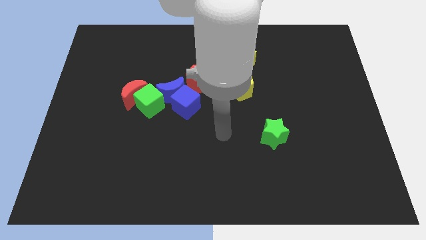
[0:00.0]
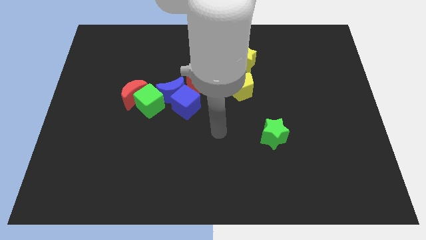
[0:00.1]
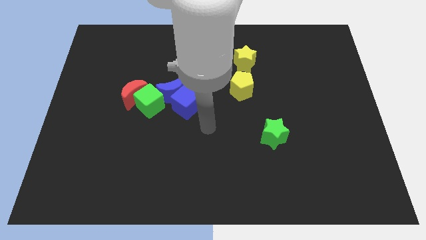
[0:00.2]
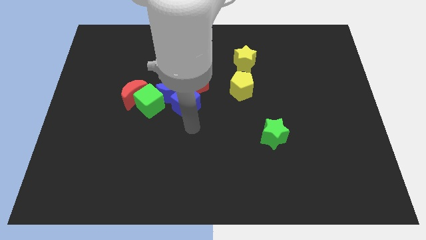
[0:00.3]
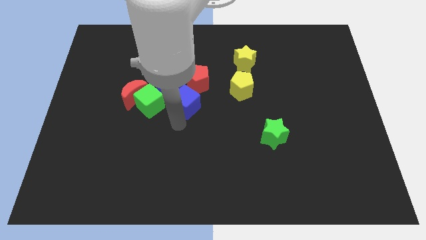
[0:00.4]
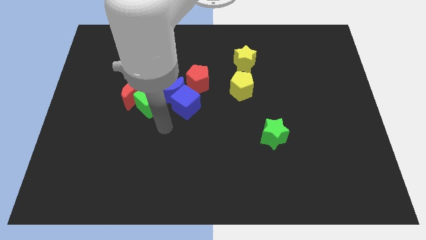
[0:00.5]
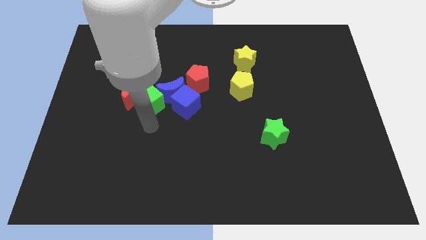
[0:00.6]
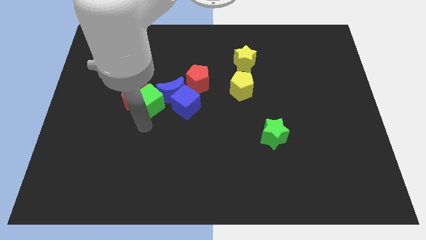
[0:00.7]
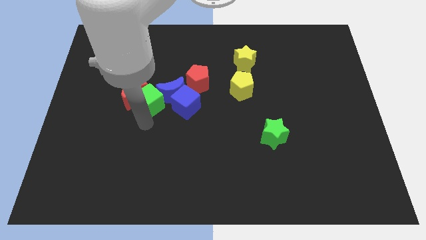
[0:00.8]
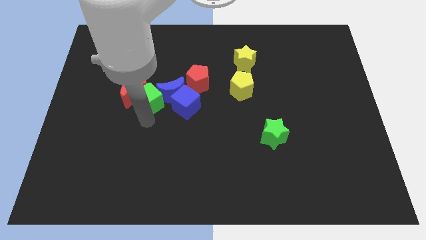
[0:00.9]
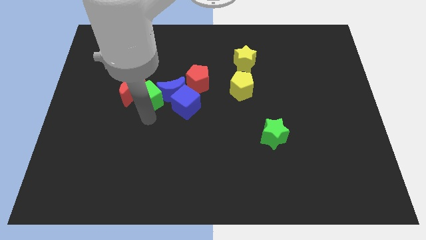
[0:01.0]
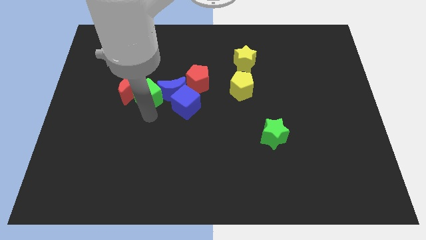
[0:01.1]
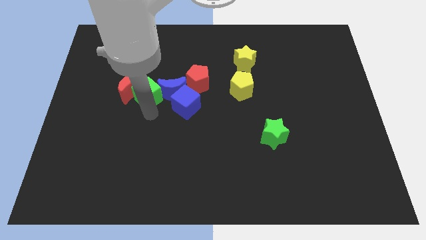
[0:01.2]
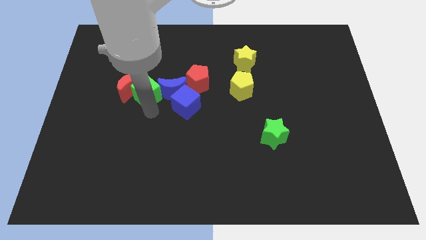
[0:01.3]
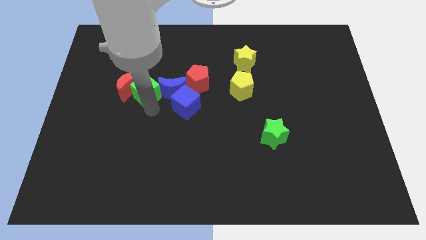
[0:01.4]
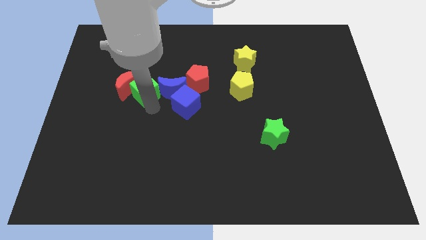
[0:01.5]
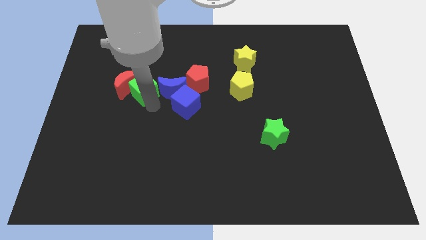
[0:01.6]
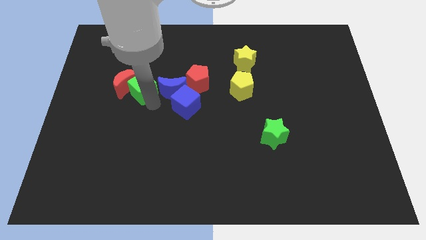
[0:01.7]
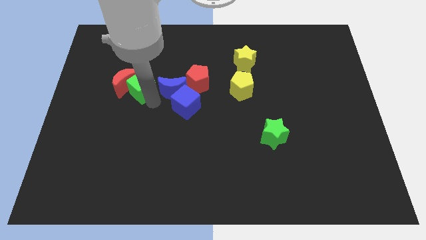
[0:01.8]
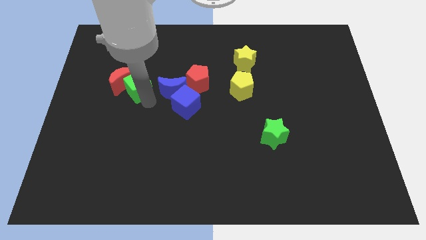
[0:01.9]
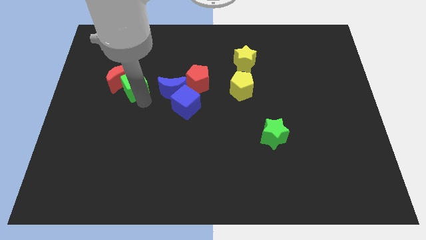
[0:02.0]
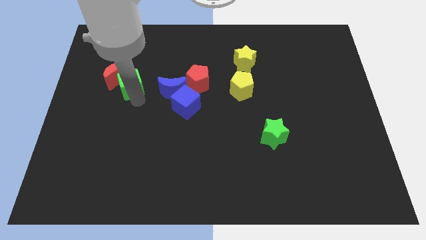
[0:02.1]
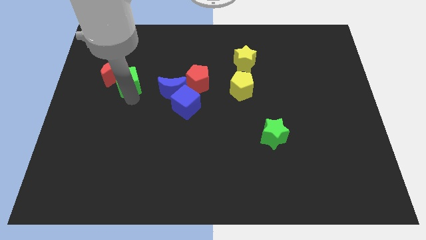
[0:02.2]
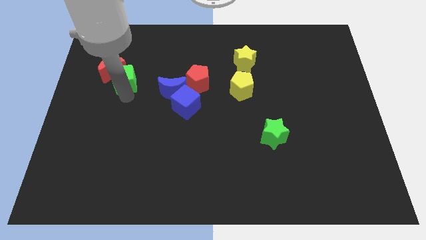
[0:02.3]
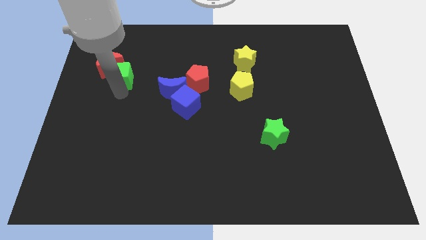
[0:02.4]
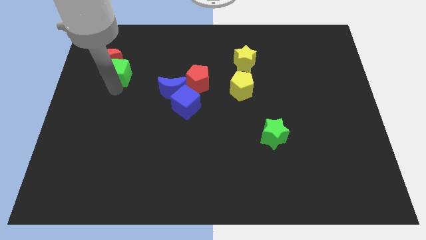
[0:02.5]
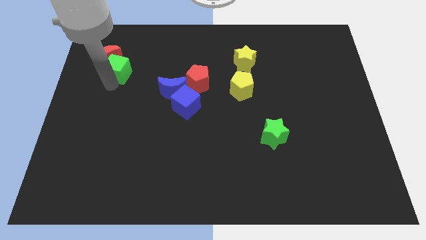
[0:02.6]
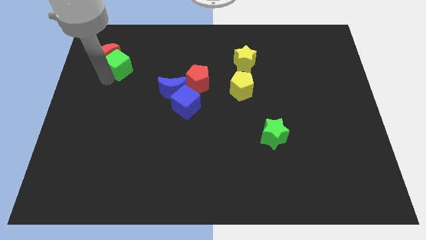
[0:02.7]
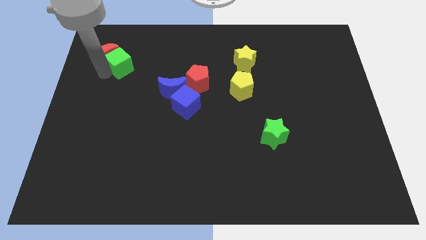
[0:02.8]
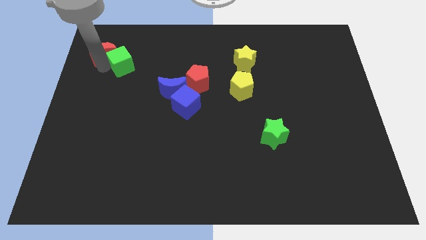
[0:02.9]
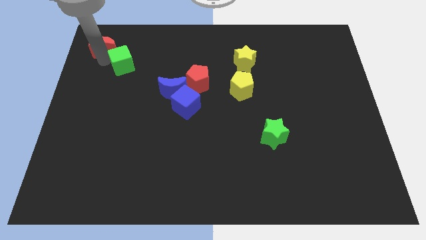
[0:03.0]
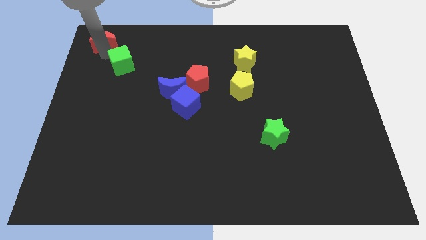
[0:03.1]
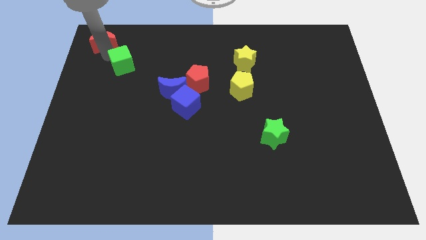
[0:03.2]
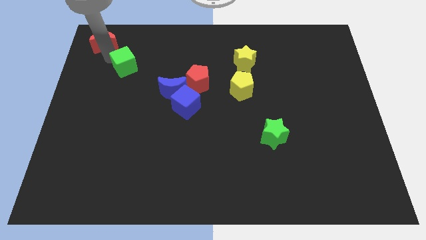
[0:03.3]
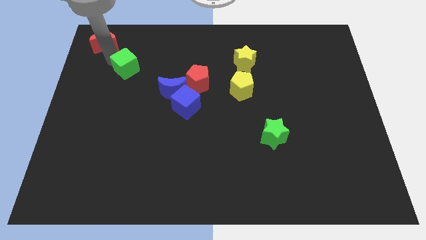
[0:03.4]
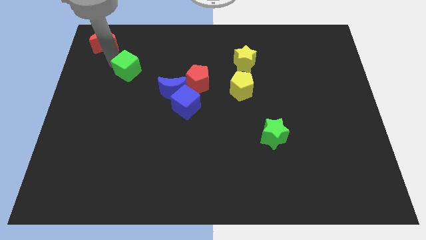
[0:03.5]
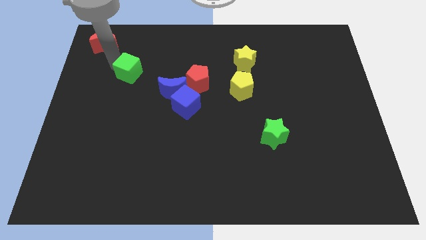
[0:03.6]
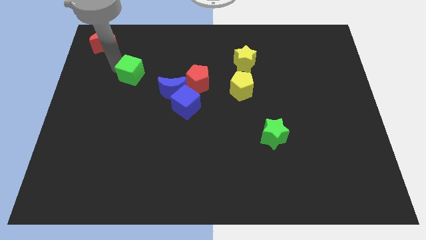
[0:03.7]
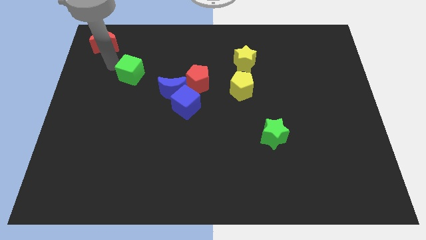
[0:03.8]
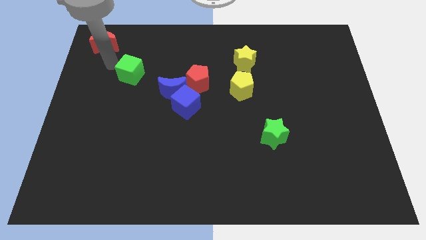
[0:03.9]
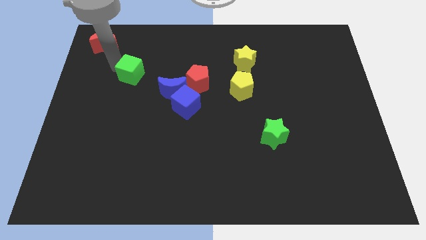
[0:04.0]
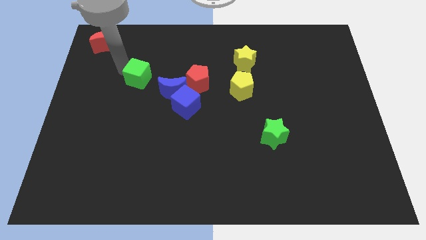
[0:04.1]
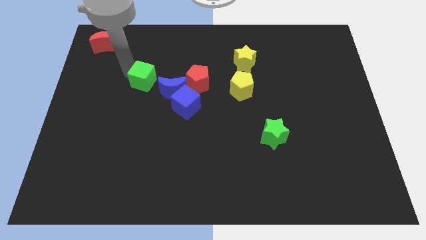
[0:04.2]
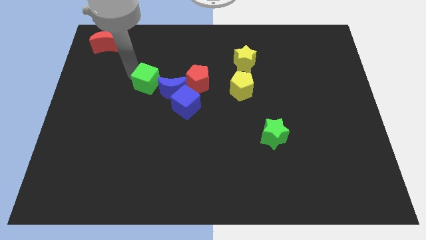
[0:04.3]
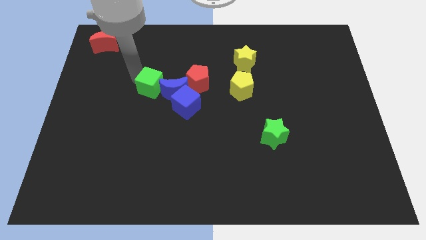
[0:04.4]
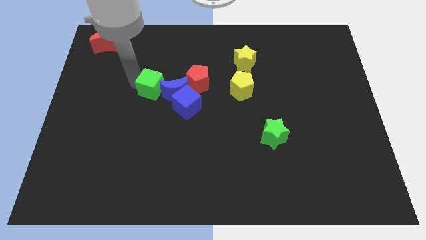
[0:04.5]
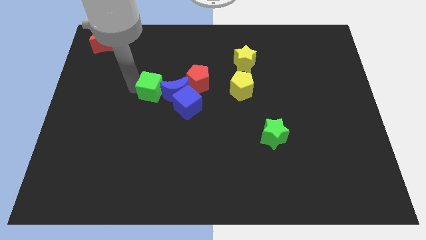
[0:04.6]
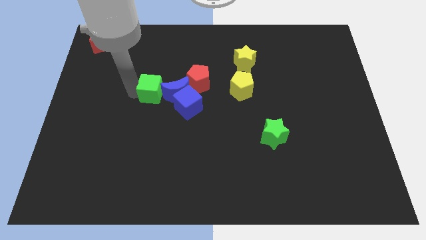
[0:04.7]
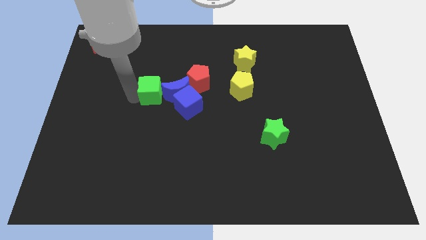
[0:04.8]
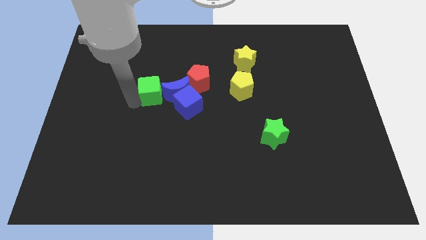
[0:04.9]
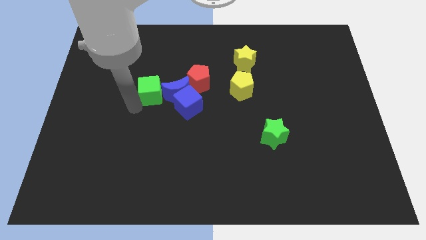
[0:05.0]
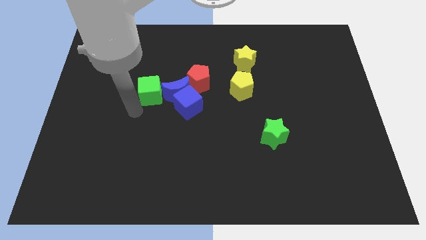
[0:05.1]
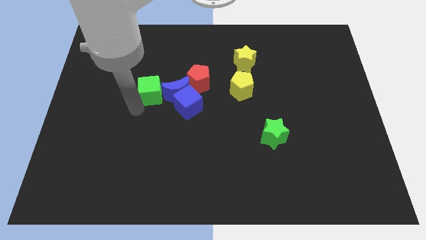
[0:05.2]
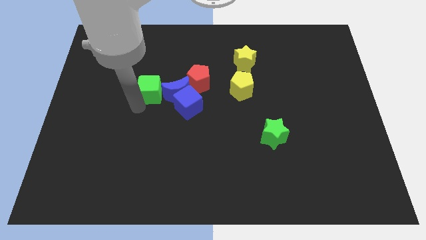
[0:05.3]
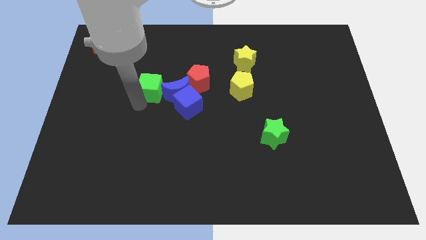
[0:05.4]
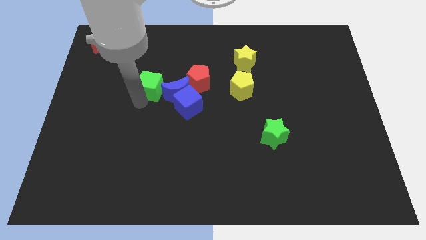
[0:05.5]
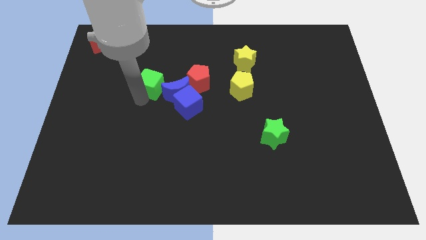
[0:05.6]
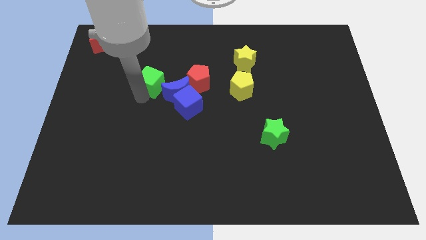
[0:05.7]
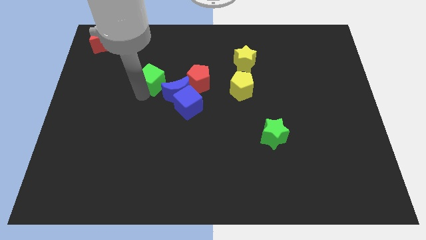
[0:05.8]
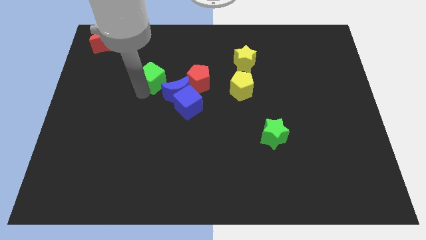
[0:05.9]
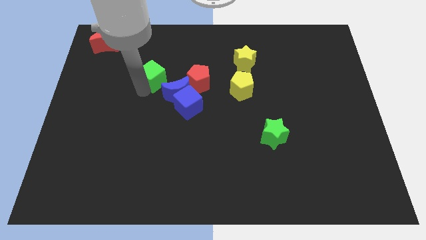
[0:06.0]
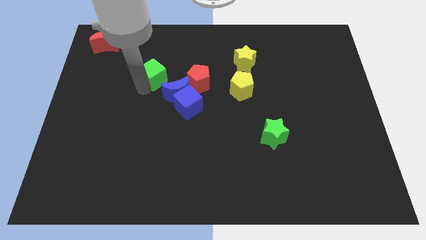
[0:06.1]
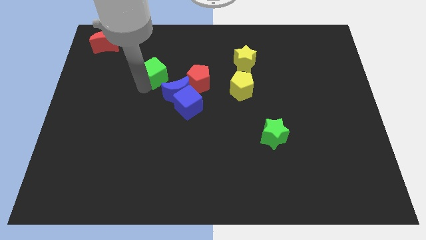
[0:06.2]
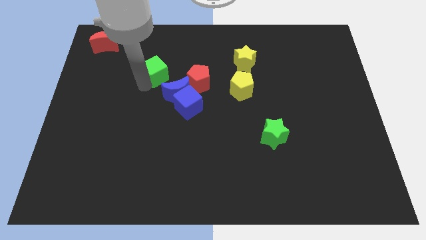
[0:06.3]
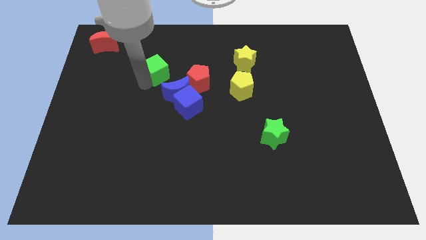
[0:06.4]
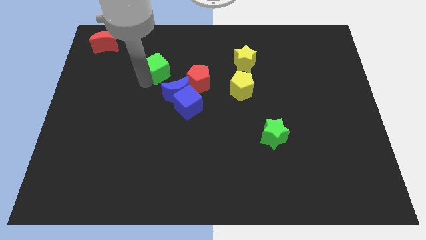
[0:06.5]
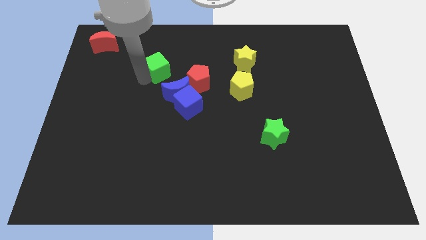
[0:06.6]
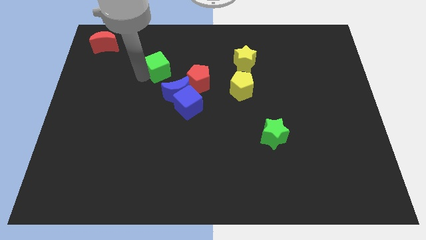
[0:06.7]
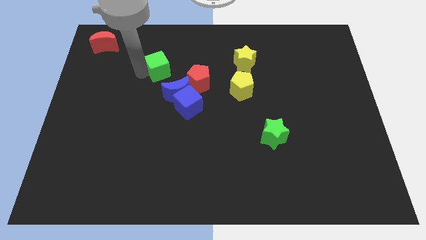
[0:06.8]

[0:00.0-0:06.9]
put the green cube diagonally up and to the left of the red pentagon
